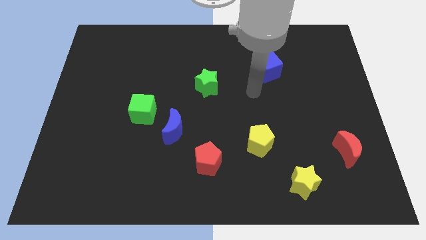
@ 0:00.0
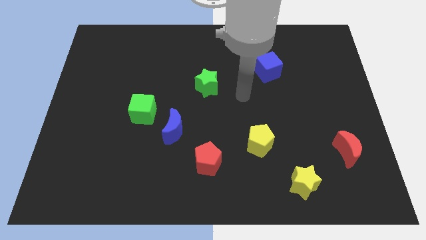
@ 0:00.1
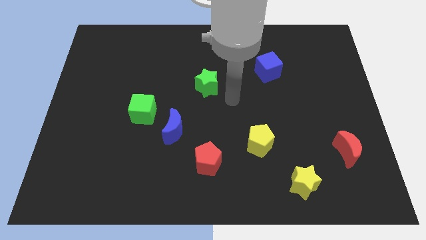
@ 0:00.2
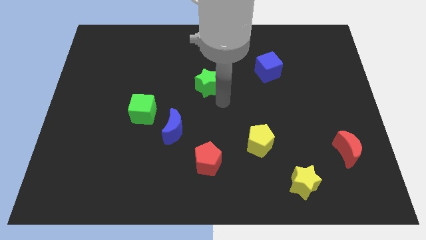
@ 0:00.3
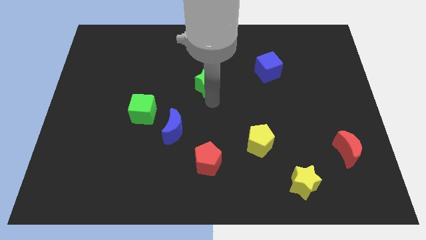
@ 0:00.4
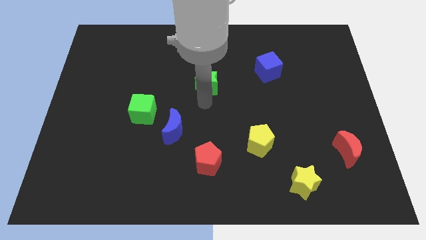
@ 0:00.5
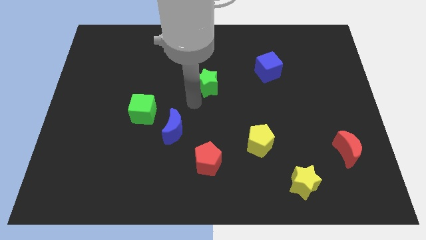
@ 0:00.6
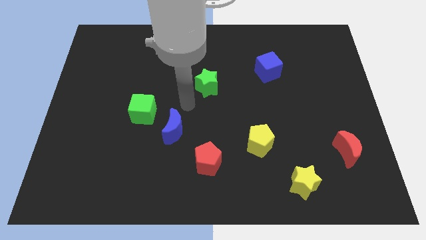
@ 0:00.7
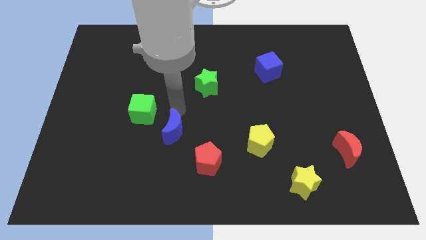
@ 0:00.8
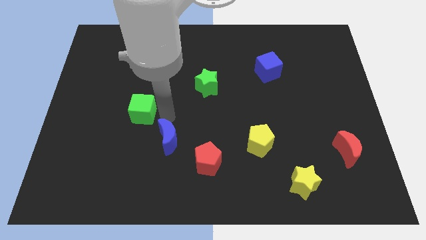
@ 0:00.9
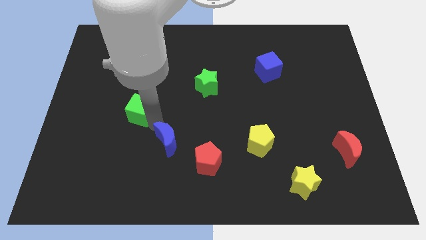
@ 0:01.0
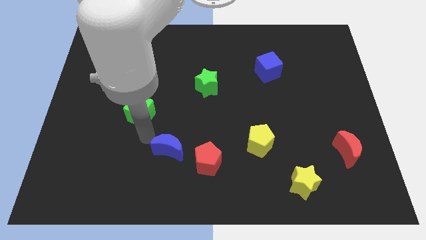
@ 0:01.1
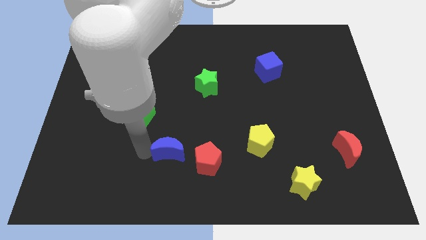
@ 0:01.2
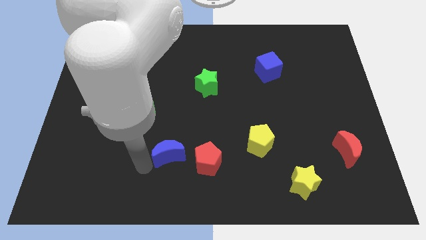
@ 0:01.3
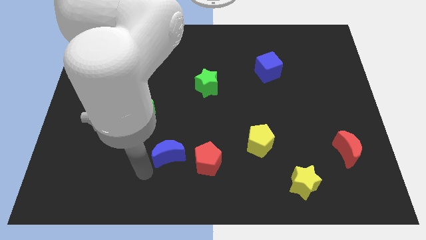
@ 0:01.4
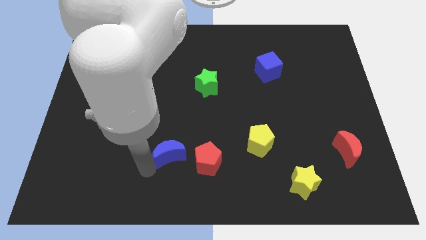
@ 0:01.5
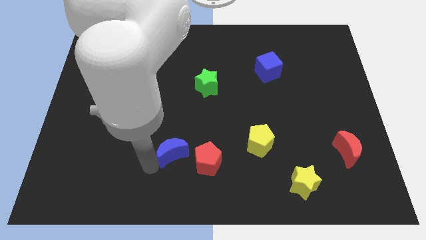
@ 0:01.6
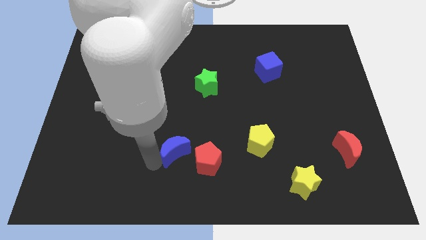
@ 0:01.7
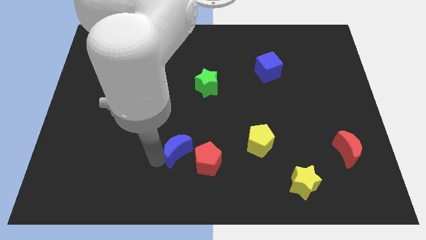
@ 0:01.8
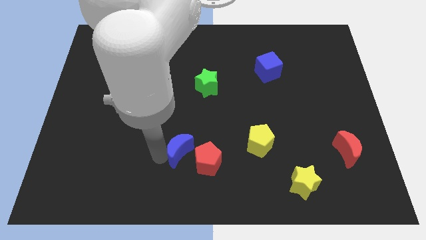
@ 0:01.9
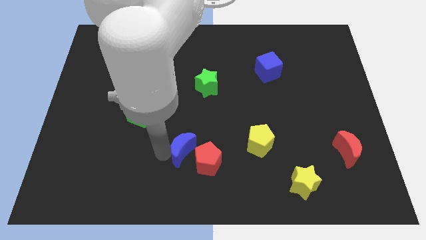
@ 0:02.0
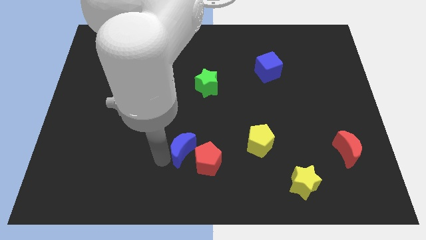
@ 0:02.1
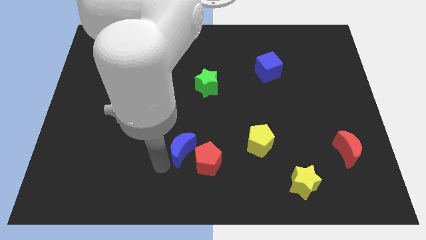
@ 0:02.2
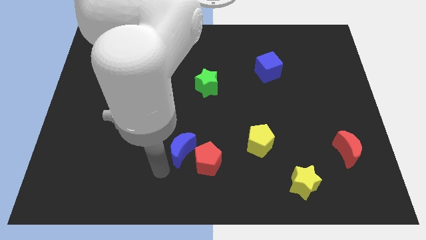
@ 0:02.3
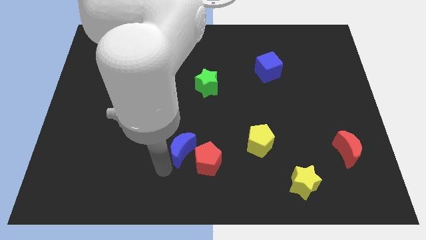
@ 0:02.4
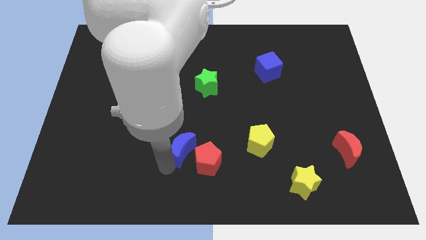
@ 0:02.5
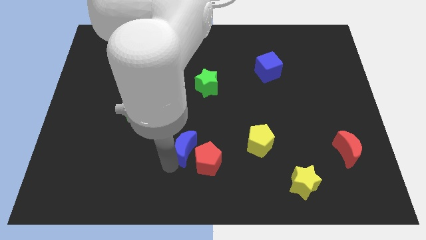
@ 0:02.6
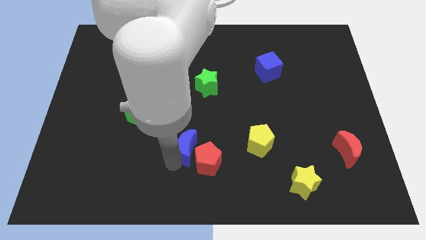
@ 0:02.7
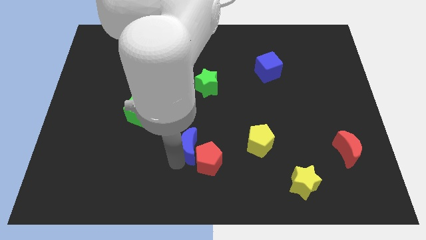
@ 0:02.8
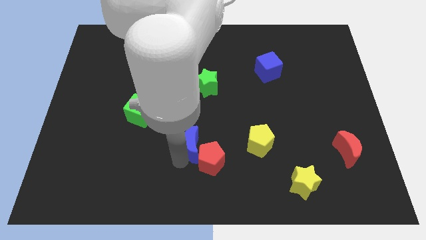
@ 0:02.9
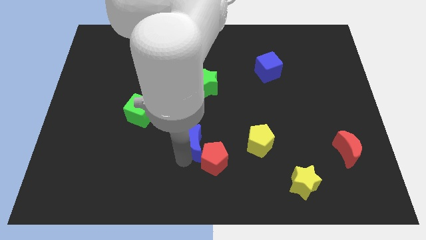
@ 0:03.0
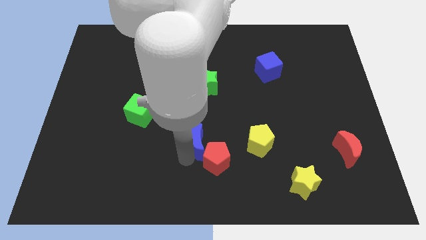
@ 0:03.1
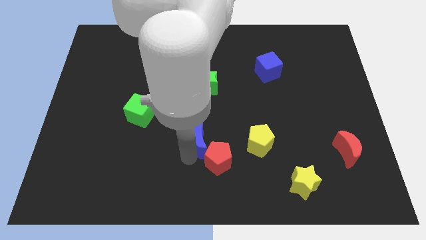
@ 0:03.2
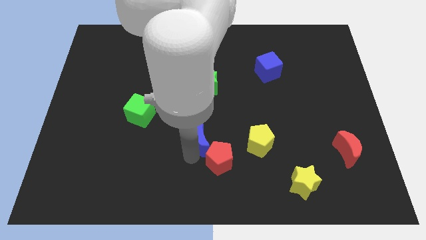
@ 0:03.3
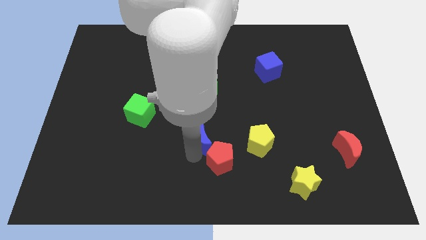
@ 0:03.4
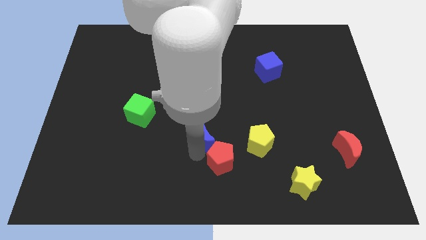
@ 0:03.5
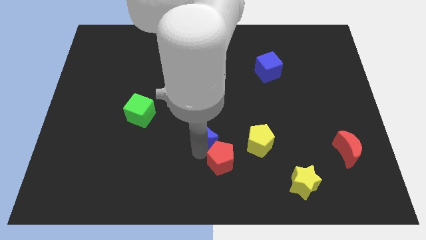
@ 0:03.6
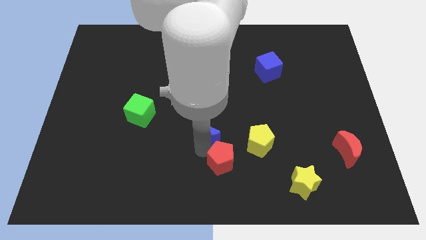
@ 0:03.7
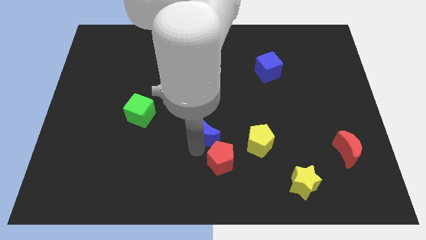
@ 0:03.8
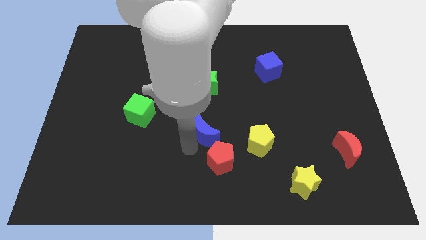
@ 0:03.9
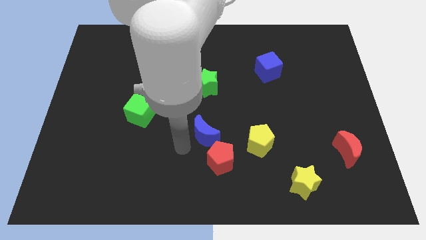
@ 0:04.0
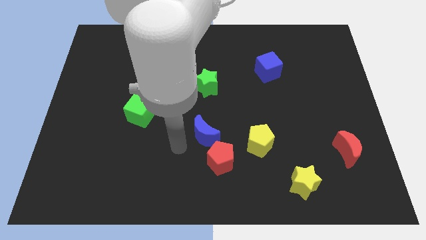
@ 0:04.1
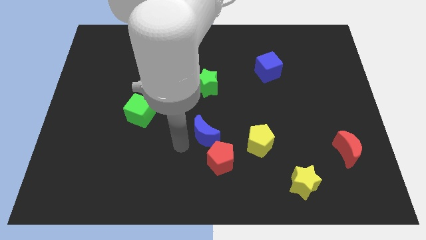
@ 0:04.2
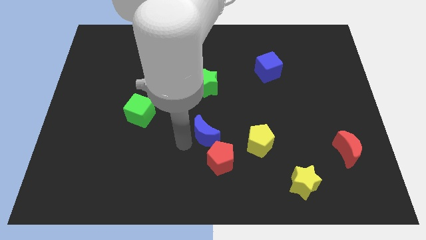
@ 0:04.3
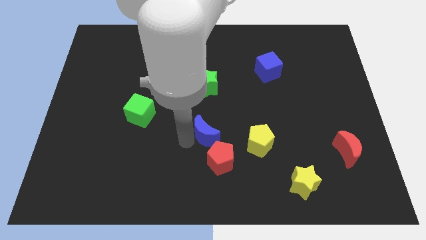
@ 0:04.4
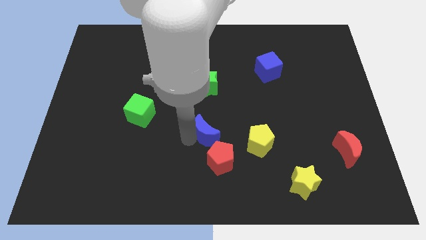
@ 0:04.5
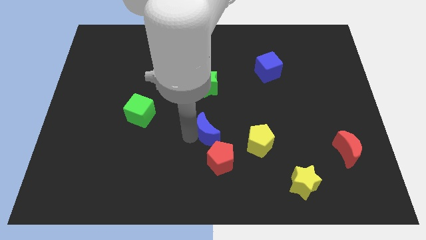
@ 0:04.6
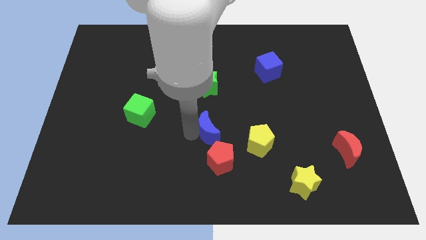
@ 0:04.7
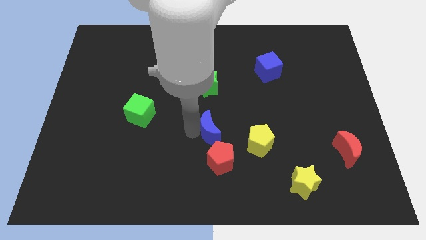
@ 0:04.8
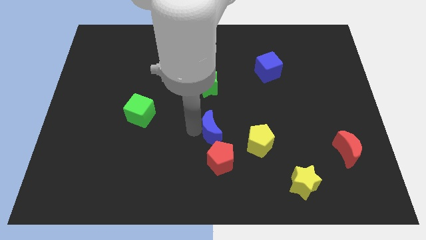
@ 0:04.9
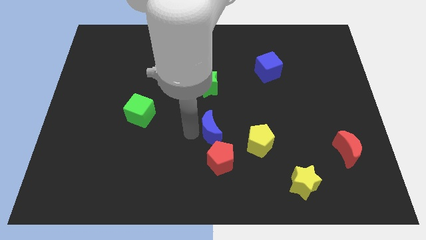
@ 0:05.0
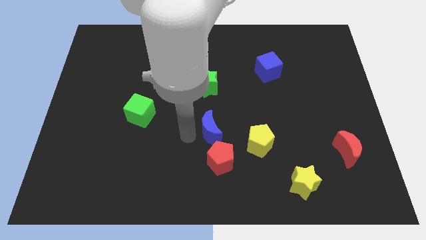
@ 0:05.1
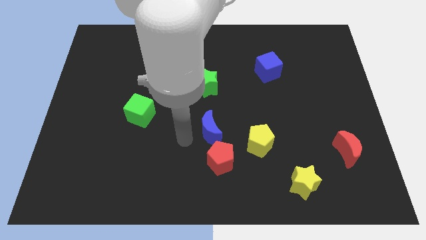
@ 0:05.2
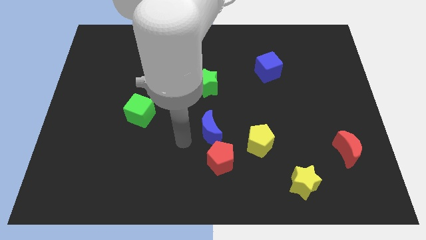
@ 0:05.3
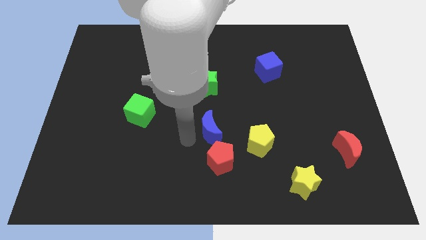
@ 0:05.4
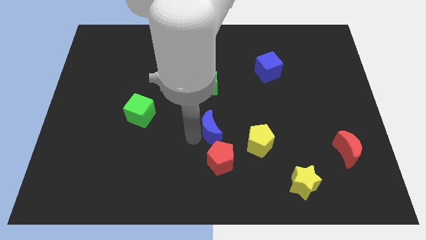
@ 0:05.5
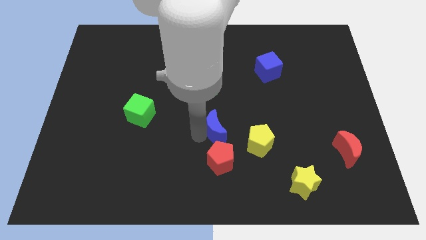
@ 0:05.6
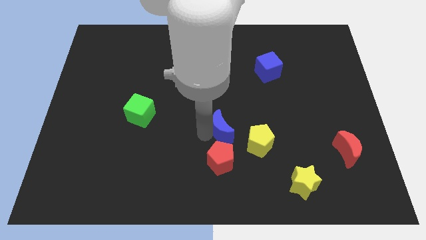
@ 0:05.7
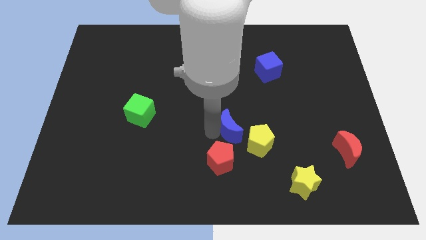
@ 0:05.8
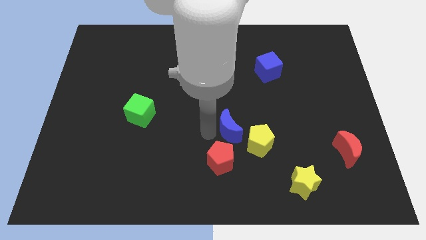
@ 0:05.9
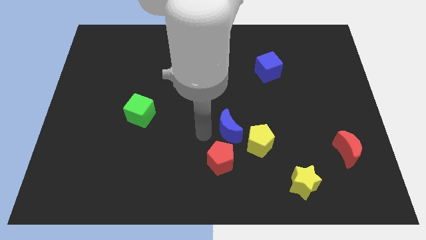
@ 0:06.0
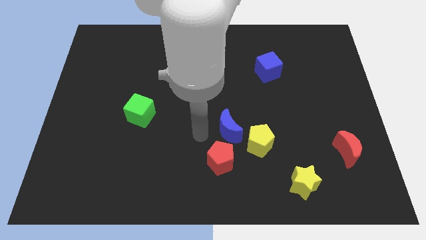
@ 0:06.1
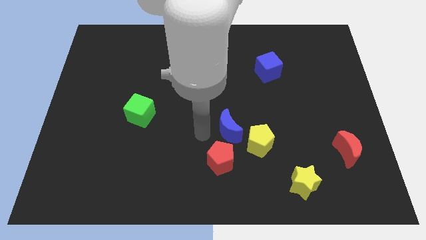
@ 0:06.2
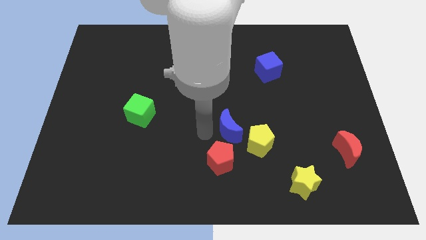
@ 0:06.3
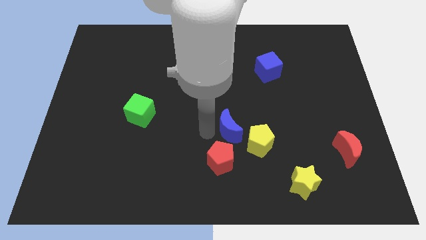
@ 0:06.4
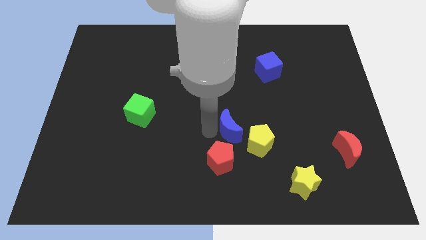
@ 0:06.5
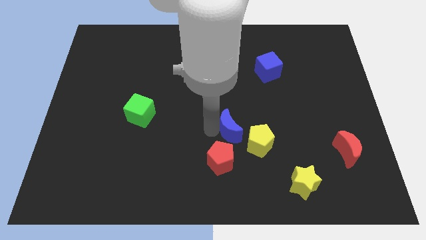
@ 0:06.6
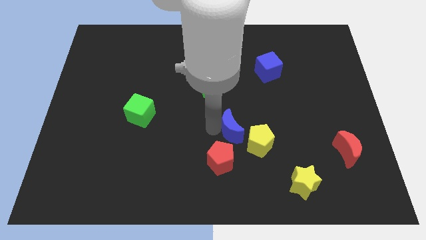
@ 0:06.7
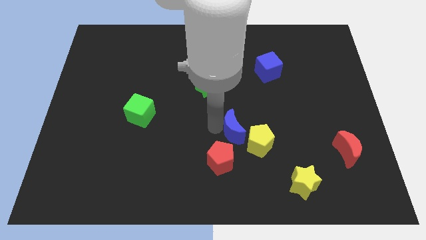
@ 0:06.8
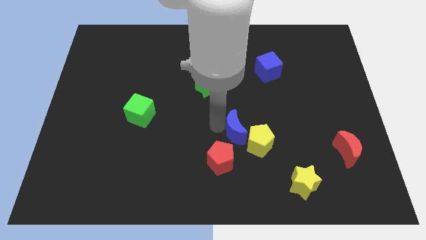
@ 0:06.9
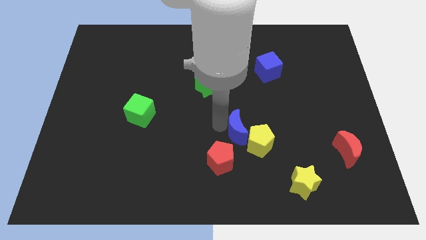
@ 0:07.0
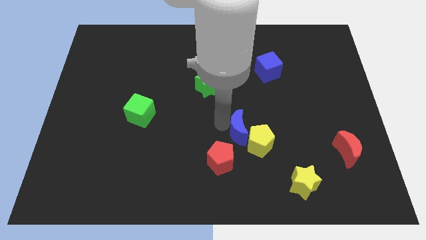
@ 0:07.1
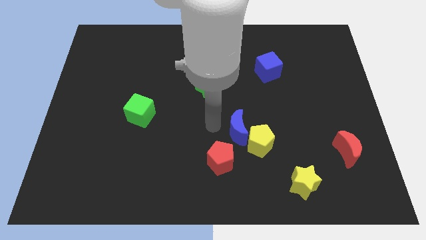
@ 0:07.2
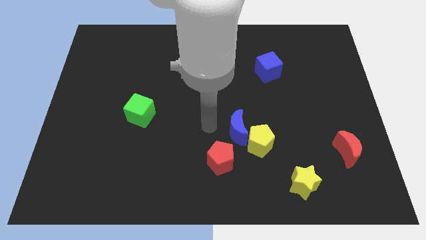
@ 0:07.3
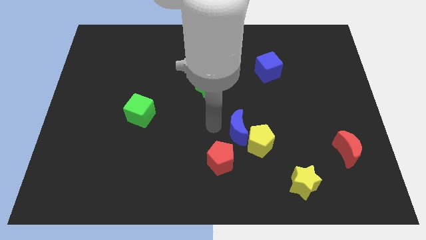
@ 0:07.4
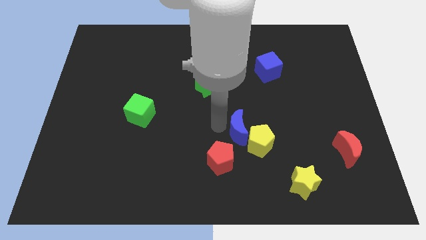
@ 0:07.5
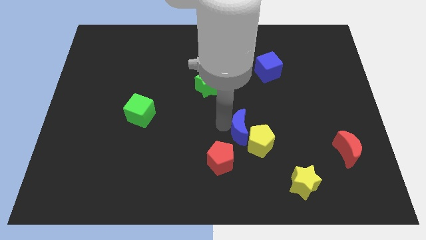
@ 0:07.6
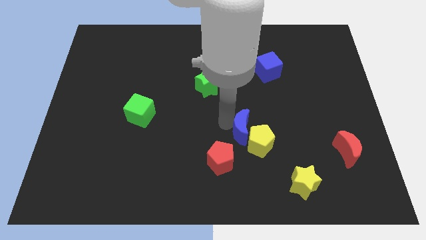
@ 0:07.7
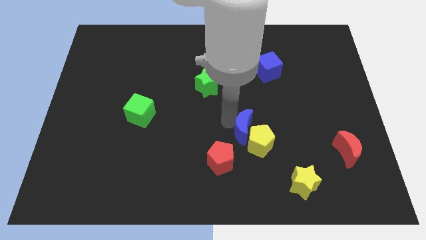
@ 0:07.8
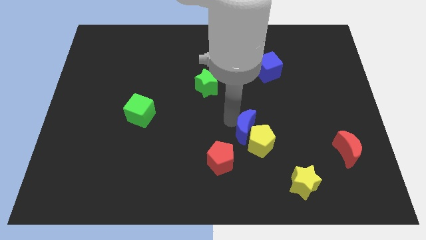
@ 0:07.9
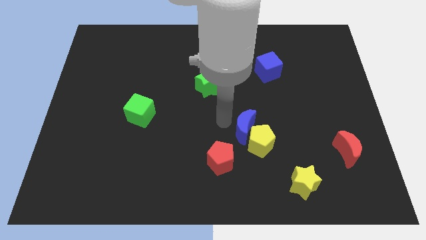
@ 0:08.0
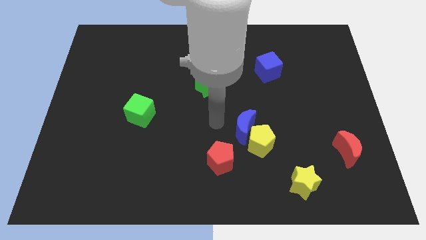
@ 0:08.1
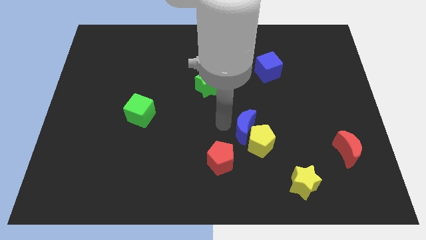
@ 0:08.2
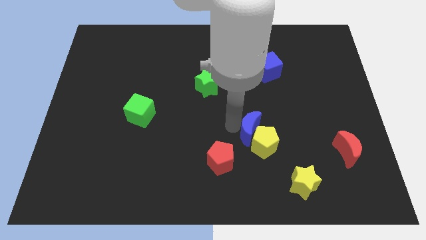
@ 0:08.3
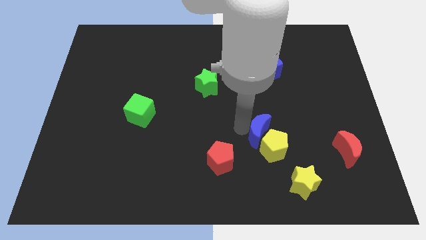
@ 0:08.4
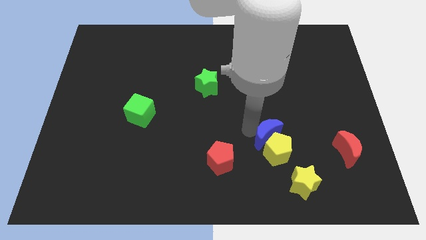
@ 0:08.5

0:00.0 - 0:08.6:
move the blue moon right
